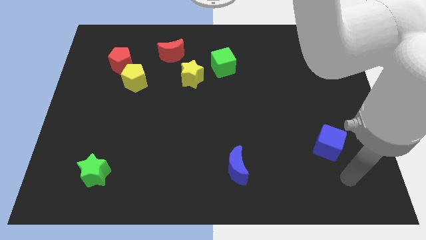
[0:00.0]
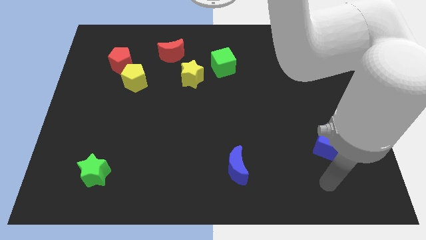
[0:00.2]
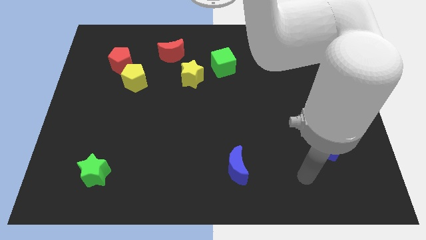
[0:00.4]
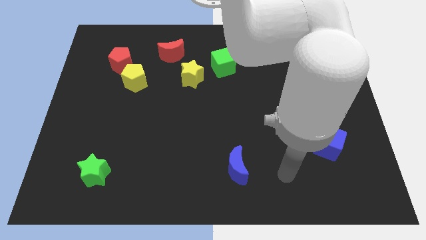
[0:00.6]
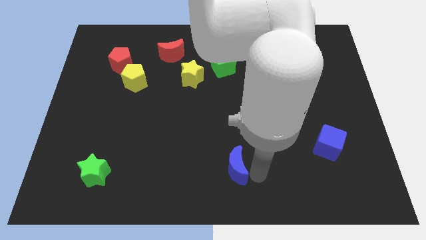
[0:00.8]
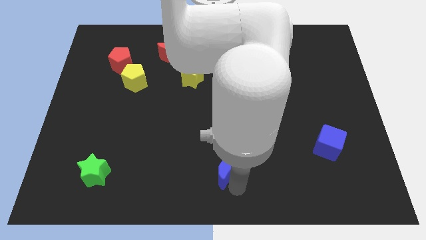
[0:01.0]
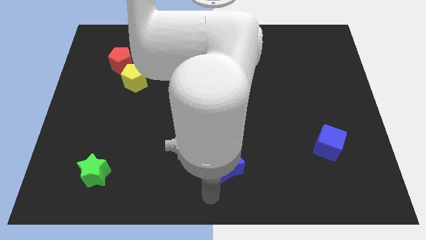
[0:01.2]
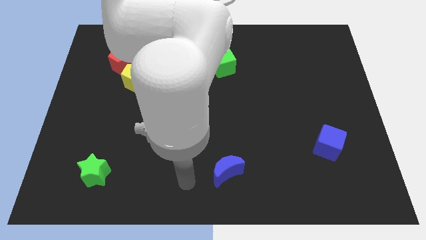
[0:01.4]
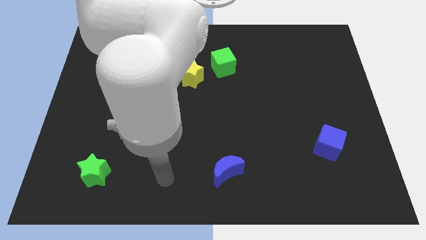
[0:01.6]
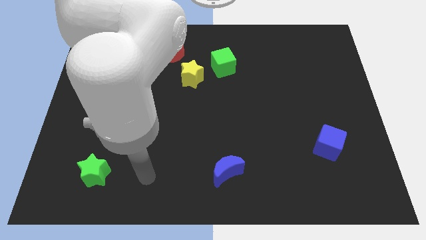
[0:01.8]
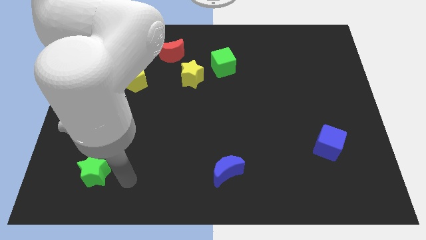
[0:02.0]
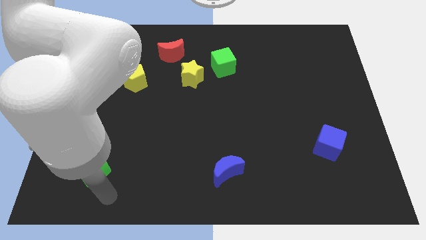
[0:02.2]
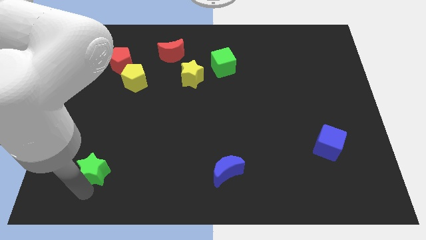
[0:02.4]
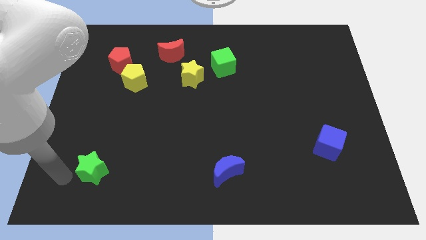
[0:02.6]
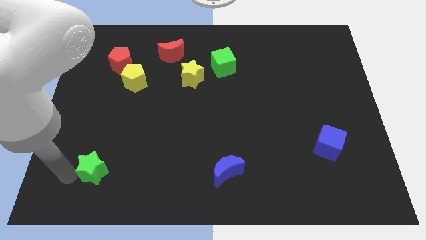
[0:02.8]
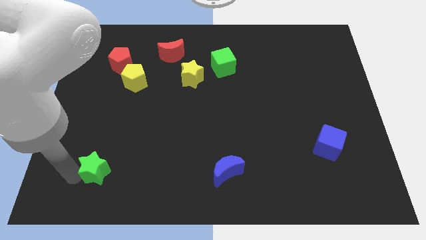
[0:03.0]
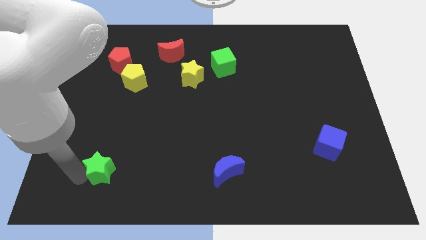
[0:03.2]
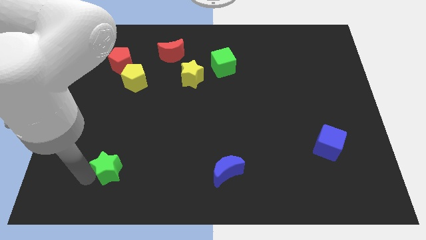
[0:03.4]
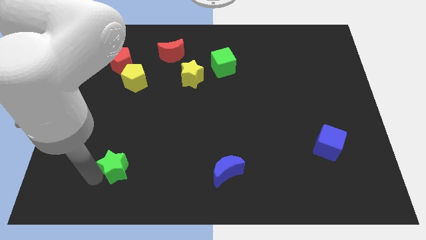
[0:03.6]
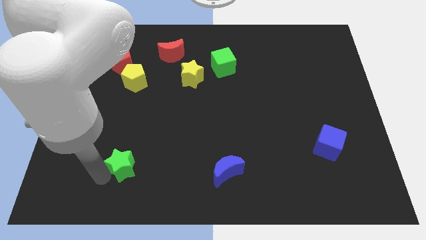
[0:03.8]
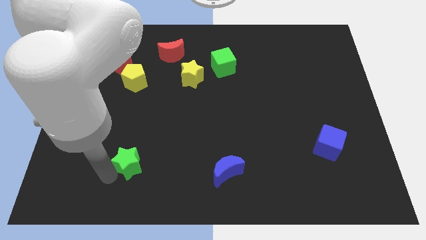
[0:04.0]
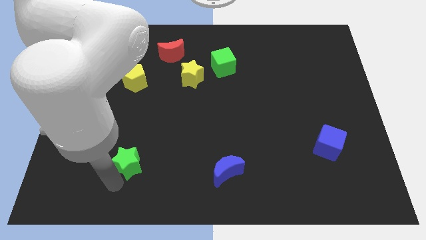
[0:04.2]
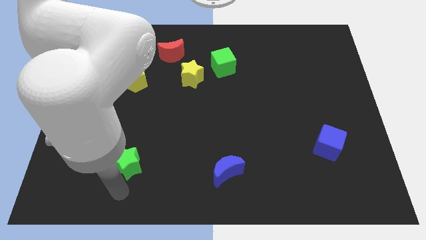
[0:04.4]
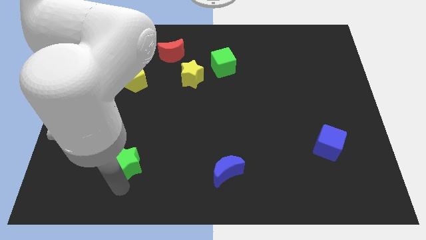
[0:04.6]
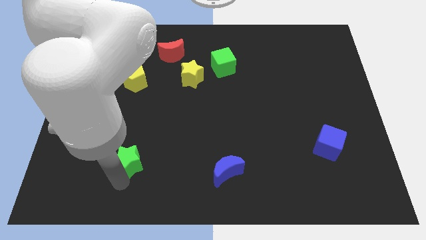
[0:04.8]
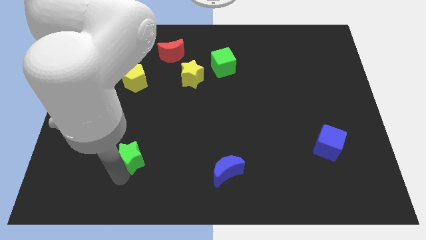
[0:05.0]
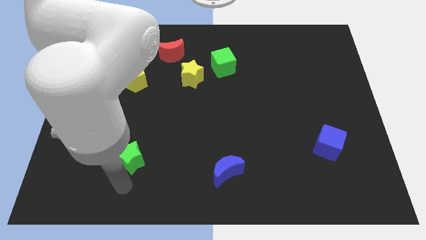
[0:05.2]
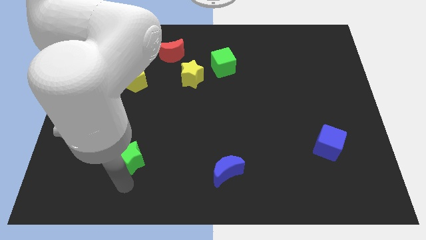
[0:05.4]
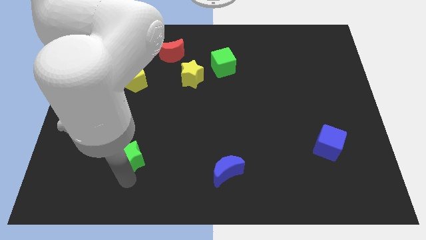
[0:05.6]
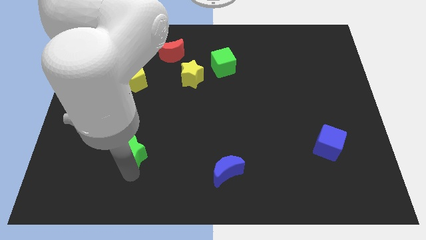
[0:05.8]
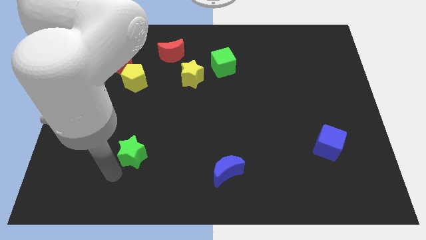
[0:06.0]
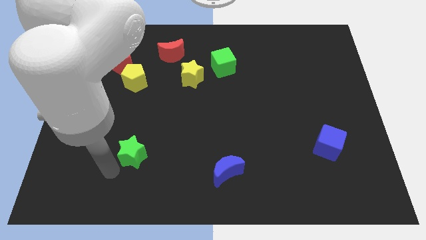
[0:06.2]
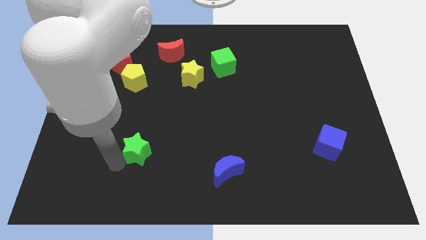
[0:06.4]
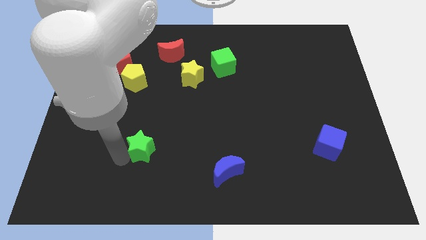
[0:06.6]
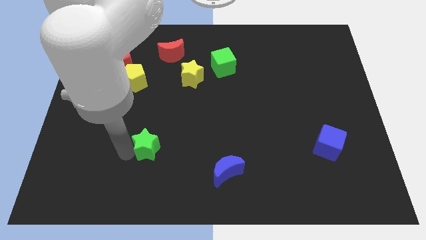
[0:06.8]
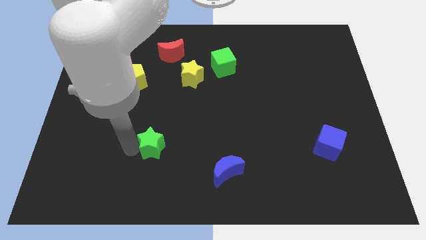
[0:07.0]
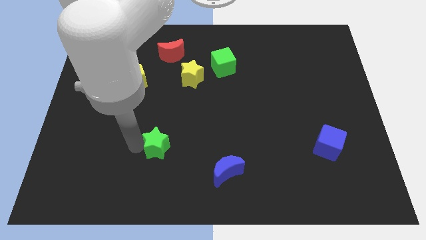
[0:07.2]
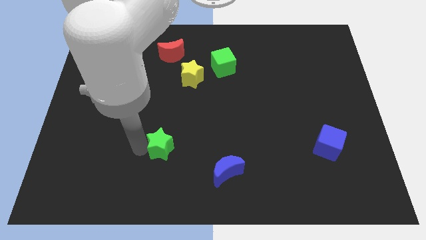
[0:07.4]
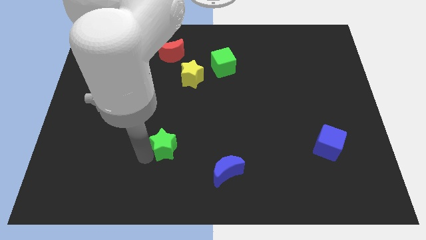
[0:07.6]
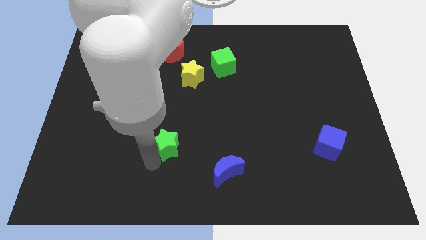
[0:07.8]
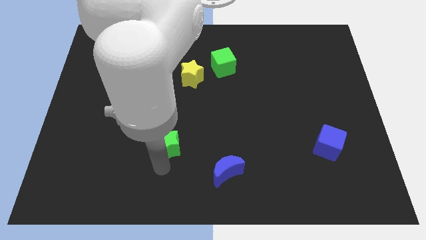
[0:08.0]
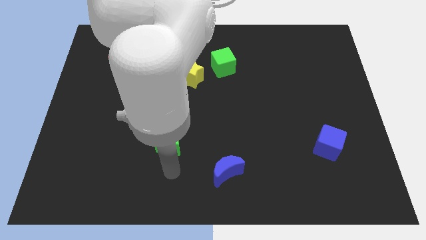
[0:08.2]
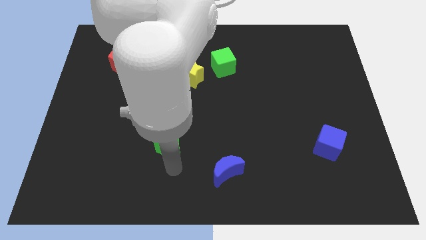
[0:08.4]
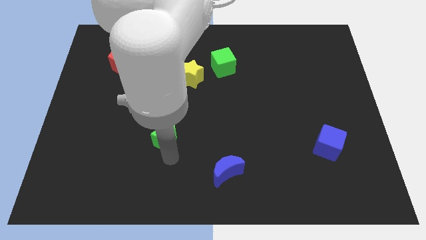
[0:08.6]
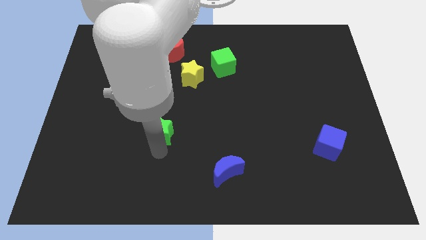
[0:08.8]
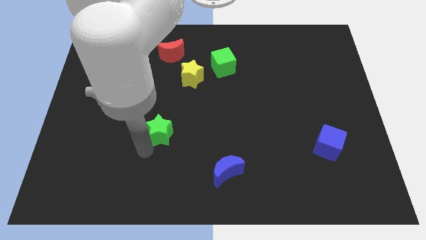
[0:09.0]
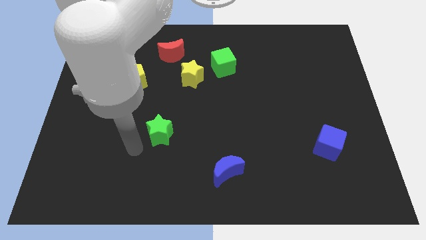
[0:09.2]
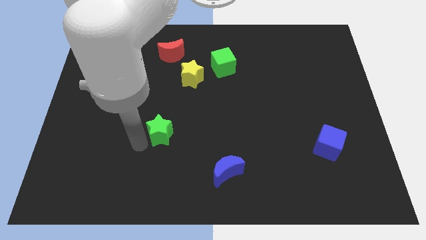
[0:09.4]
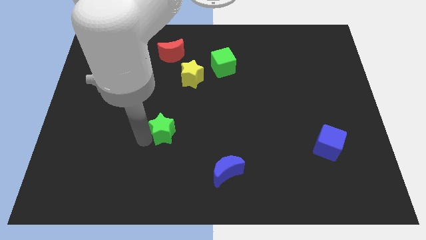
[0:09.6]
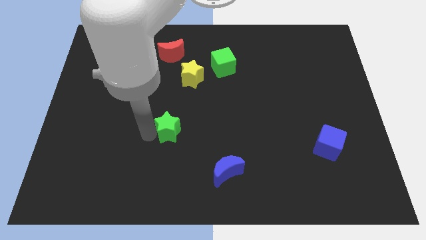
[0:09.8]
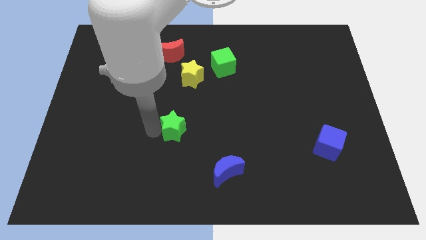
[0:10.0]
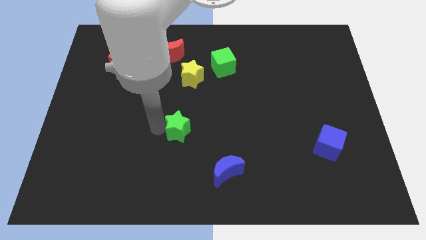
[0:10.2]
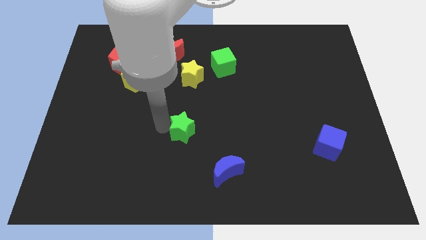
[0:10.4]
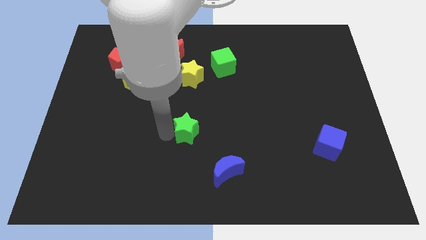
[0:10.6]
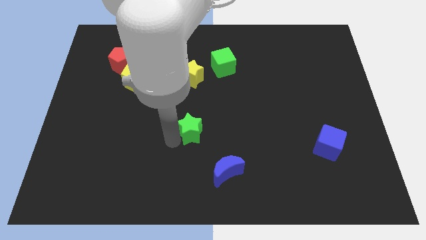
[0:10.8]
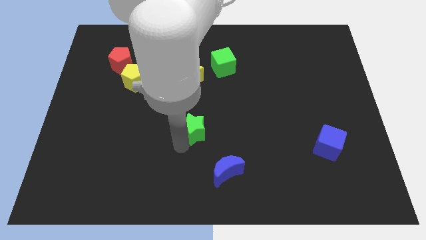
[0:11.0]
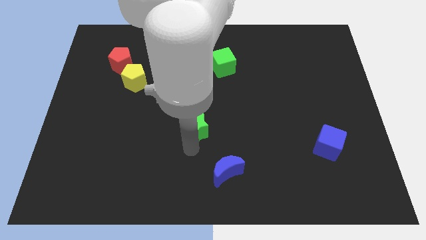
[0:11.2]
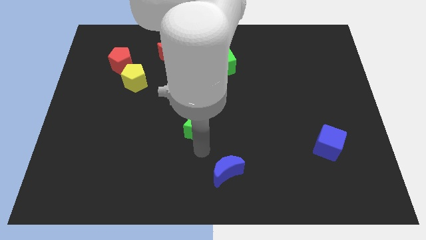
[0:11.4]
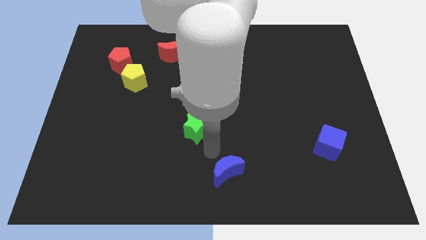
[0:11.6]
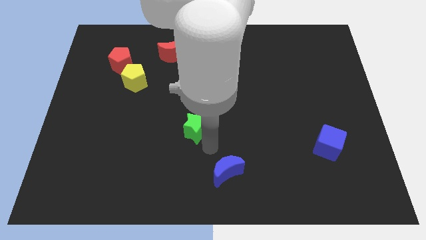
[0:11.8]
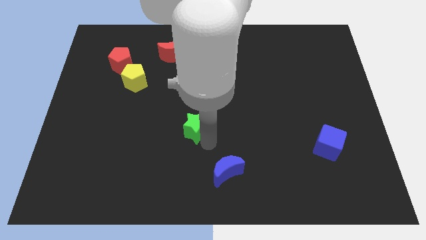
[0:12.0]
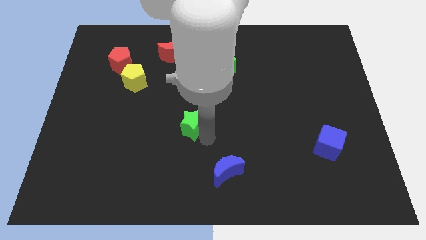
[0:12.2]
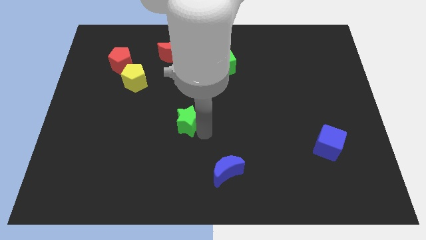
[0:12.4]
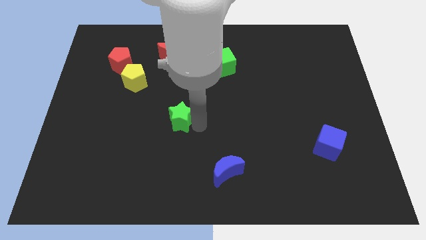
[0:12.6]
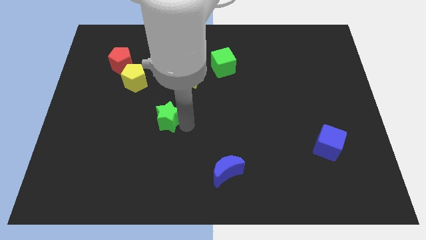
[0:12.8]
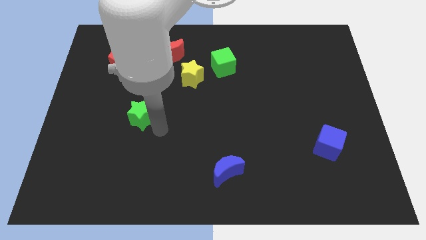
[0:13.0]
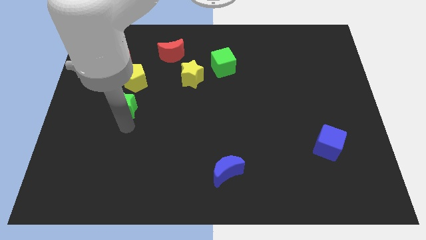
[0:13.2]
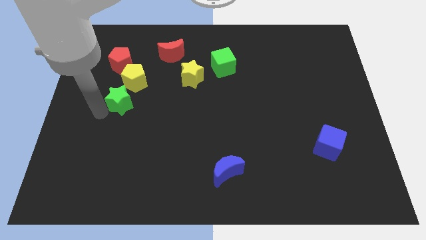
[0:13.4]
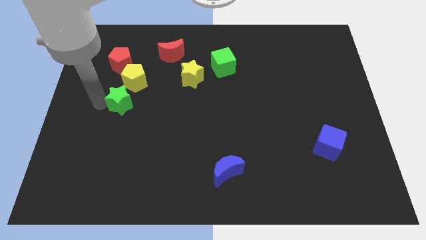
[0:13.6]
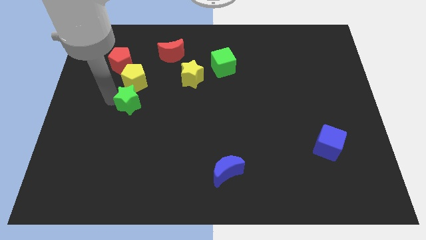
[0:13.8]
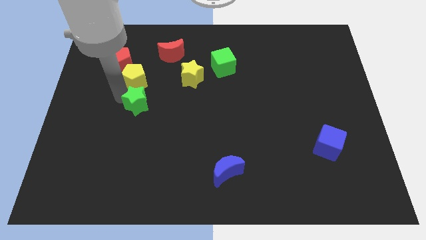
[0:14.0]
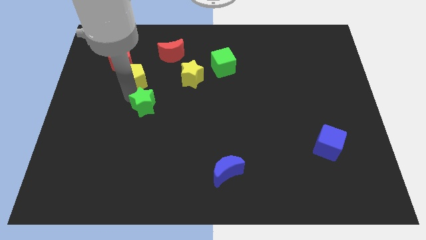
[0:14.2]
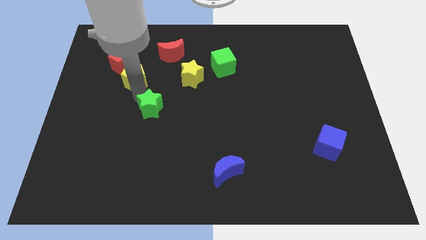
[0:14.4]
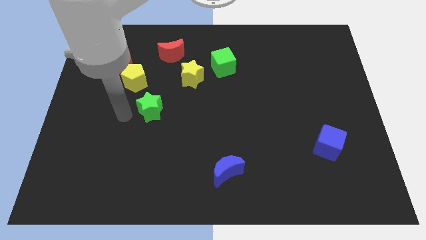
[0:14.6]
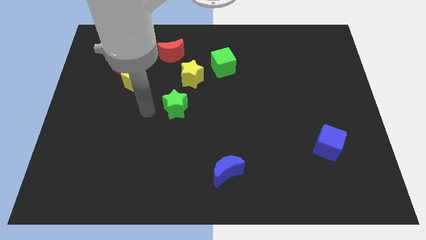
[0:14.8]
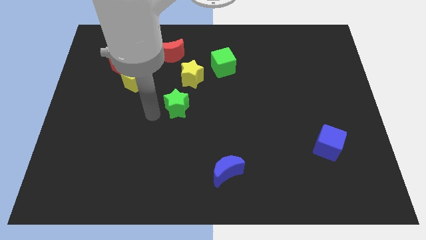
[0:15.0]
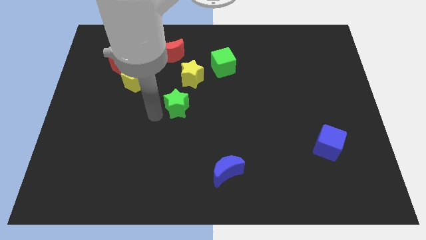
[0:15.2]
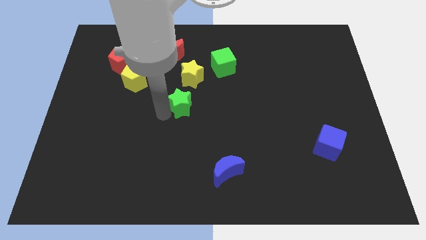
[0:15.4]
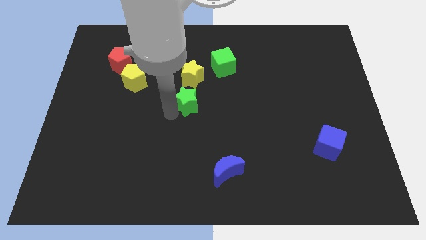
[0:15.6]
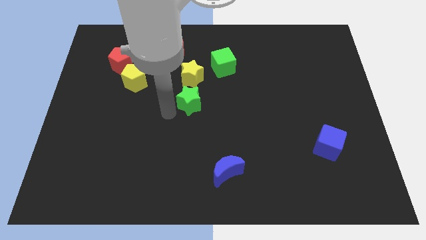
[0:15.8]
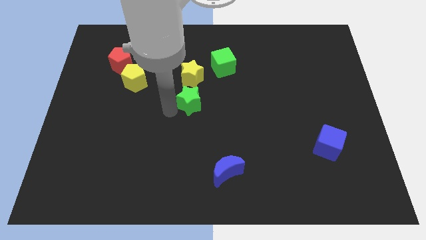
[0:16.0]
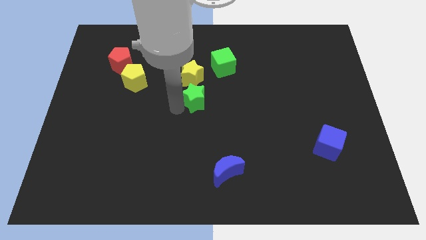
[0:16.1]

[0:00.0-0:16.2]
slide the green star to the bottom right side of the yellow star
